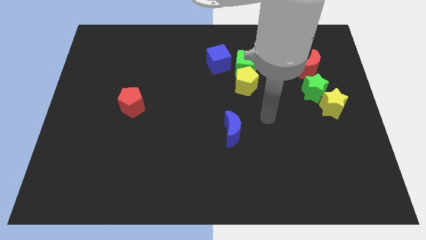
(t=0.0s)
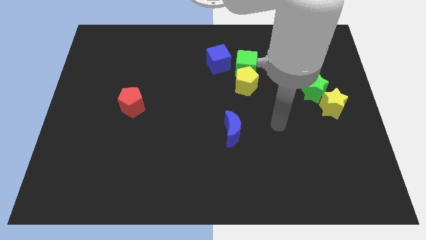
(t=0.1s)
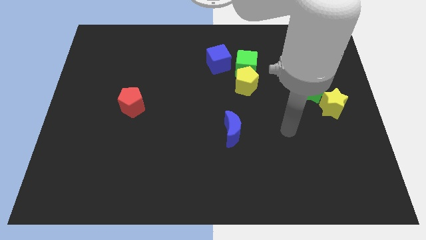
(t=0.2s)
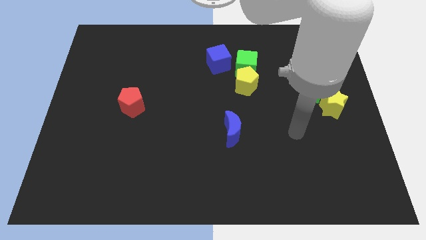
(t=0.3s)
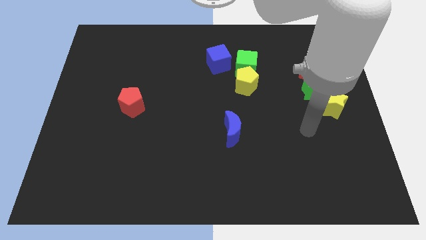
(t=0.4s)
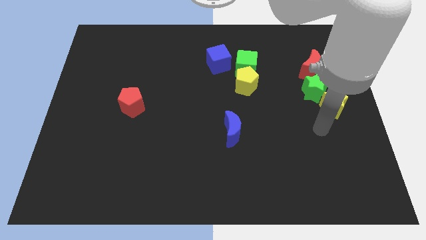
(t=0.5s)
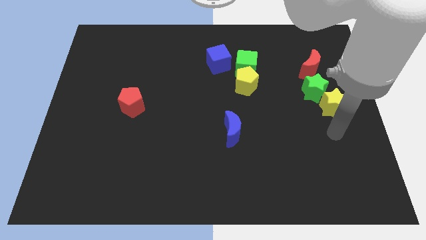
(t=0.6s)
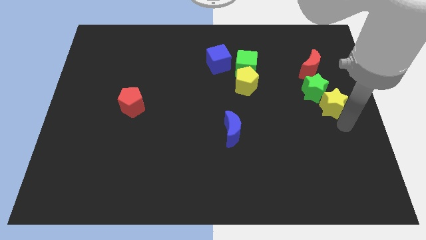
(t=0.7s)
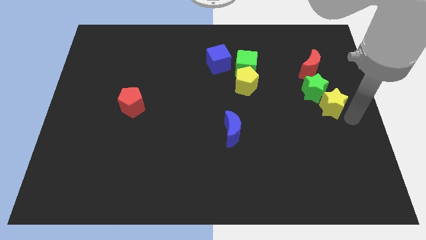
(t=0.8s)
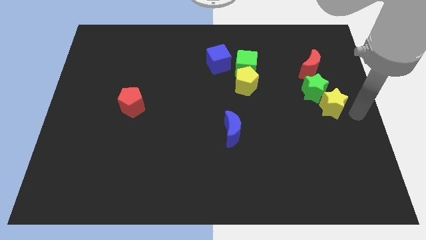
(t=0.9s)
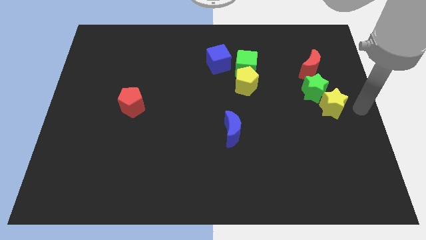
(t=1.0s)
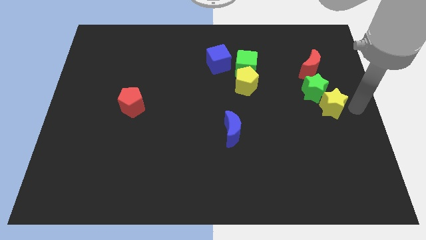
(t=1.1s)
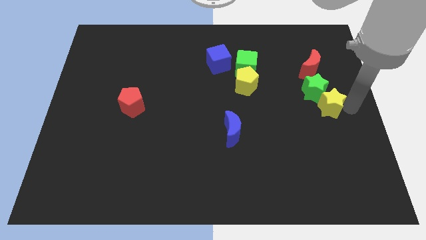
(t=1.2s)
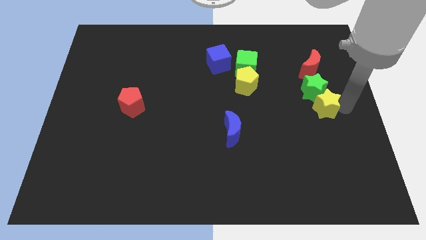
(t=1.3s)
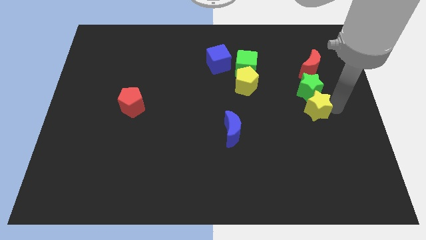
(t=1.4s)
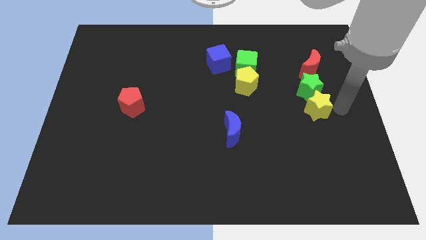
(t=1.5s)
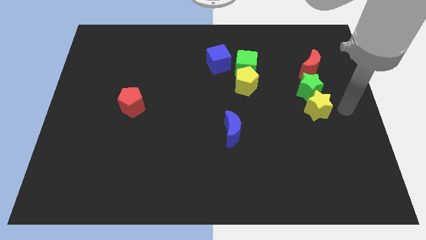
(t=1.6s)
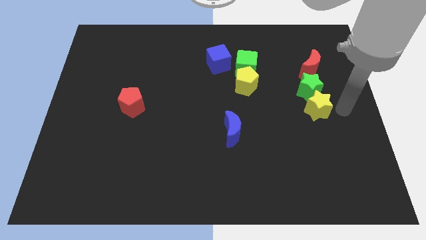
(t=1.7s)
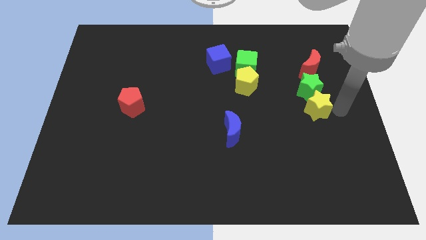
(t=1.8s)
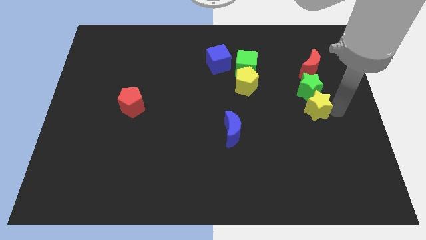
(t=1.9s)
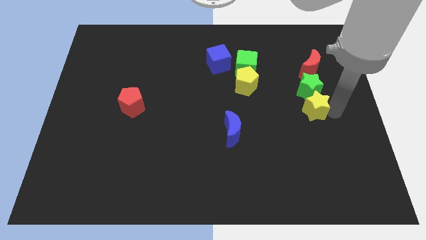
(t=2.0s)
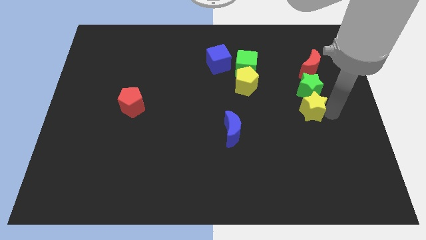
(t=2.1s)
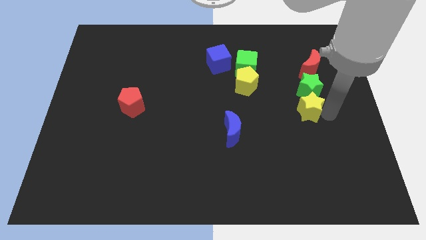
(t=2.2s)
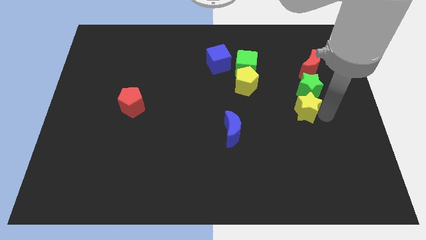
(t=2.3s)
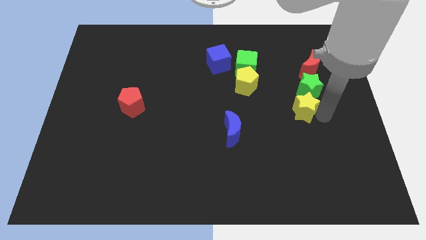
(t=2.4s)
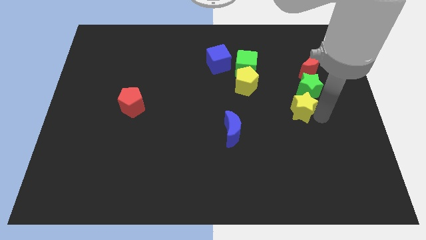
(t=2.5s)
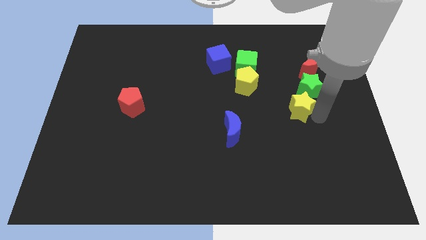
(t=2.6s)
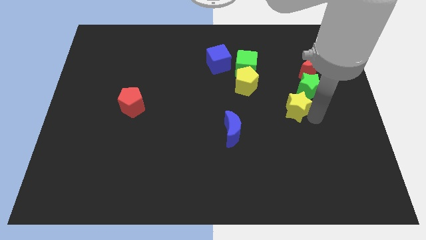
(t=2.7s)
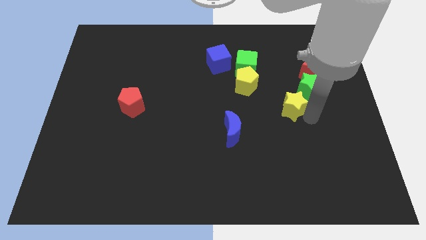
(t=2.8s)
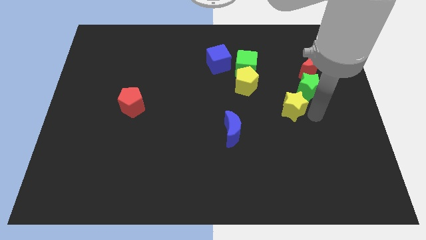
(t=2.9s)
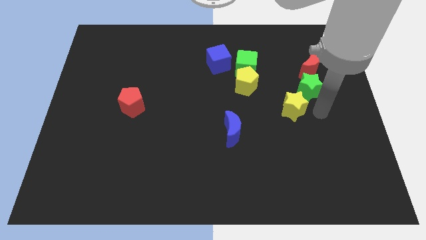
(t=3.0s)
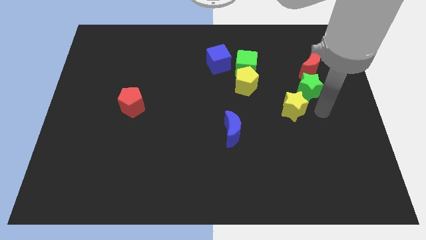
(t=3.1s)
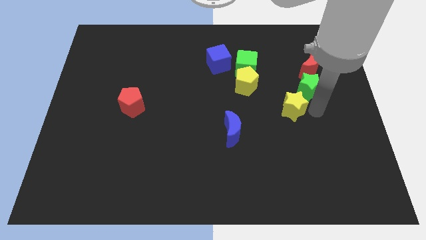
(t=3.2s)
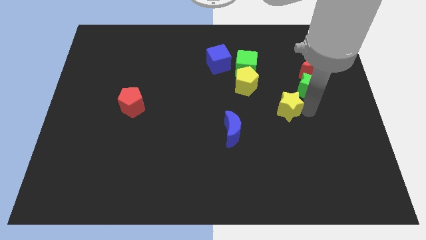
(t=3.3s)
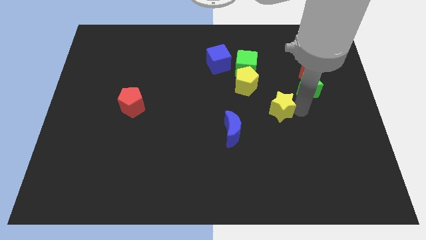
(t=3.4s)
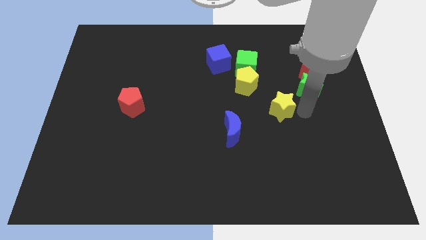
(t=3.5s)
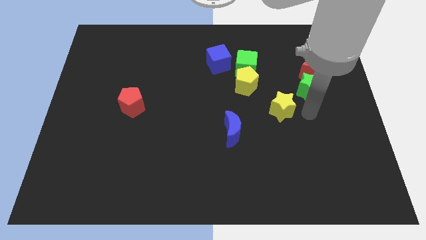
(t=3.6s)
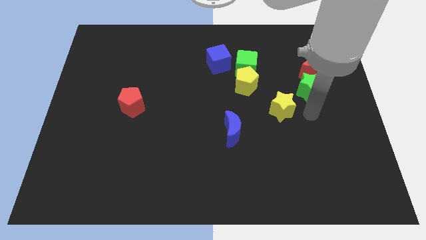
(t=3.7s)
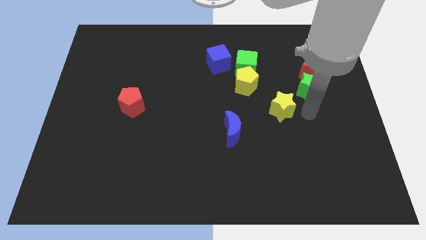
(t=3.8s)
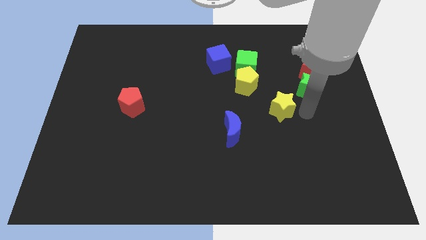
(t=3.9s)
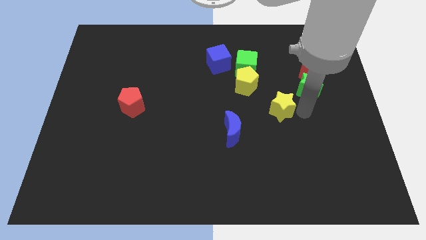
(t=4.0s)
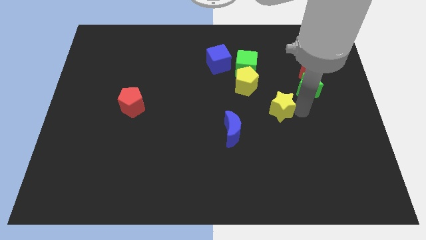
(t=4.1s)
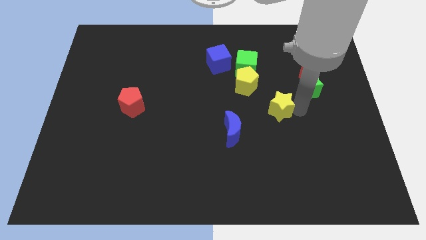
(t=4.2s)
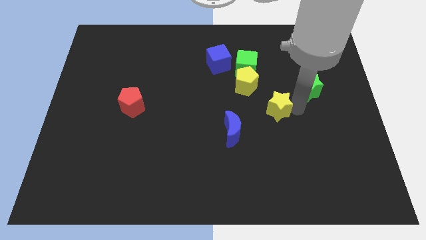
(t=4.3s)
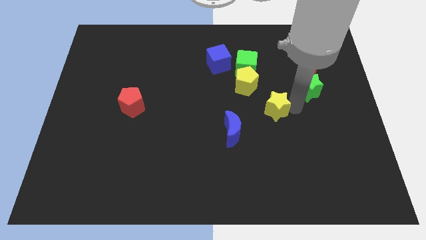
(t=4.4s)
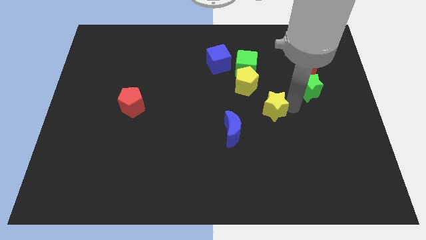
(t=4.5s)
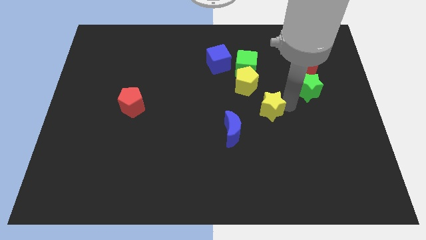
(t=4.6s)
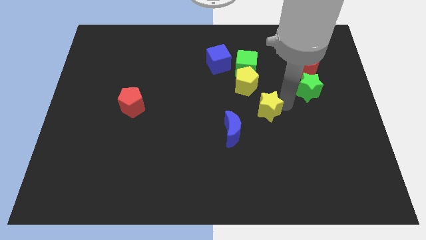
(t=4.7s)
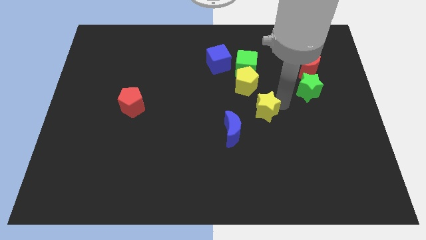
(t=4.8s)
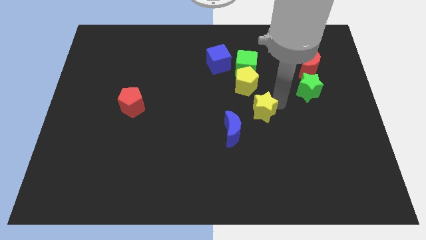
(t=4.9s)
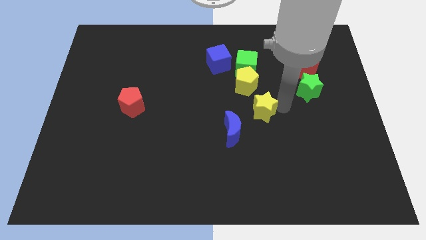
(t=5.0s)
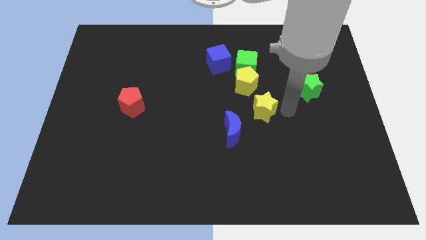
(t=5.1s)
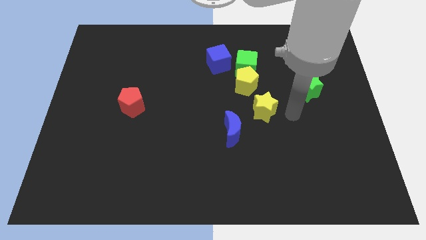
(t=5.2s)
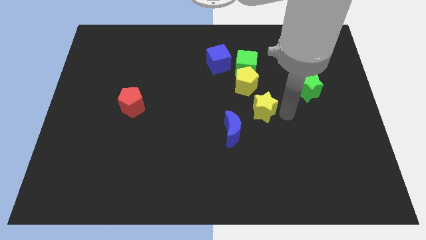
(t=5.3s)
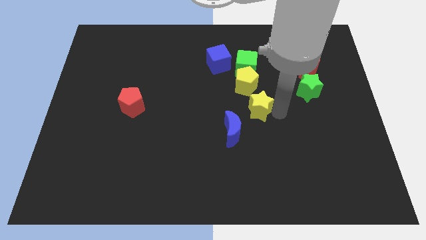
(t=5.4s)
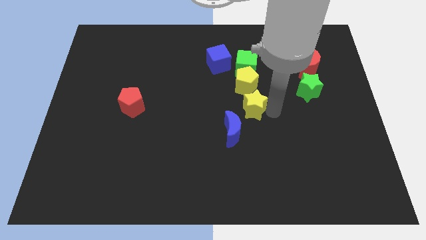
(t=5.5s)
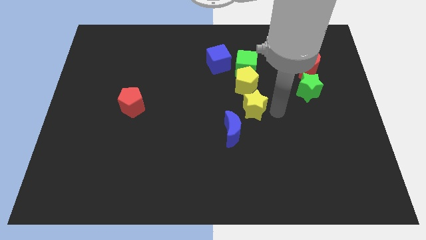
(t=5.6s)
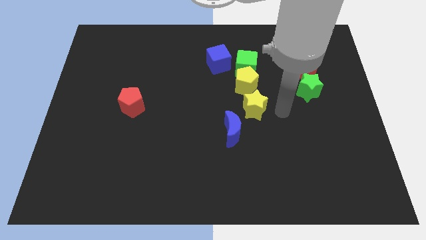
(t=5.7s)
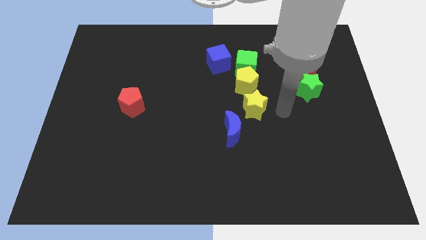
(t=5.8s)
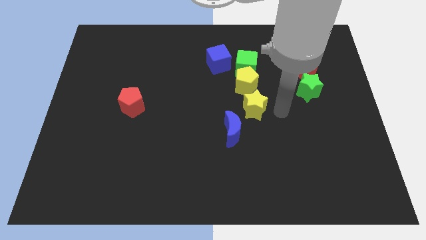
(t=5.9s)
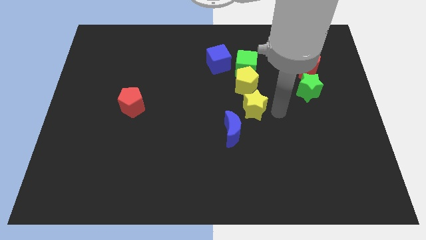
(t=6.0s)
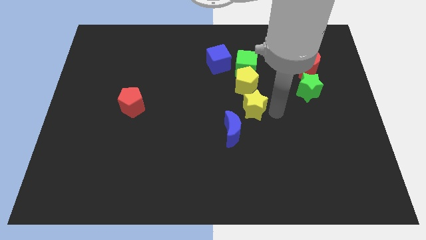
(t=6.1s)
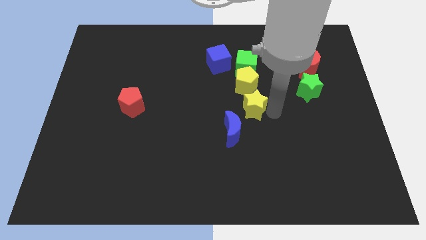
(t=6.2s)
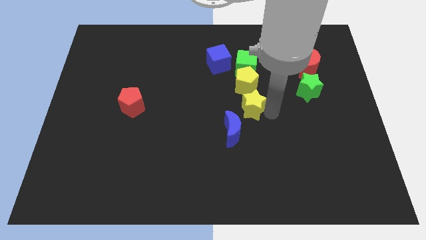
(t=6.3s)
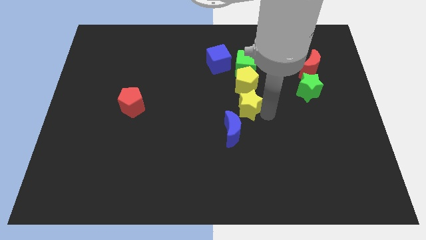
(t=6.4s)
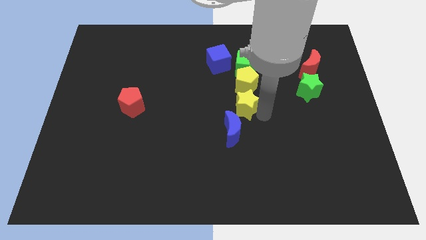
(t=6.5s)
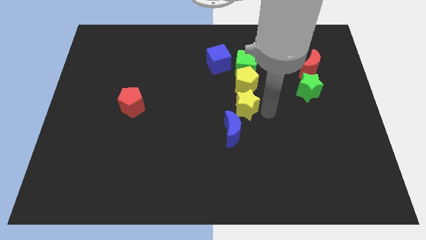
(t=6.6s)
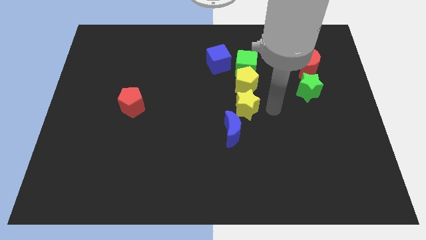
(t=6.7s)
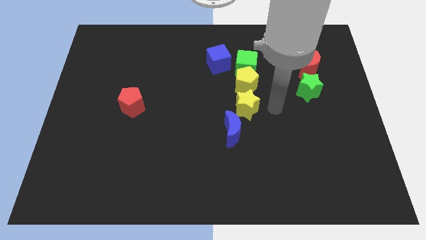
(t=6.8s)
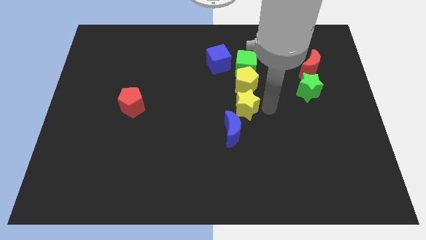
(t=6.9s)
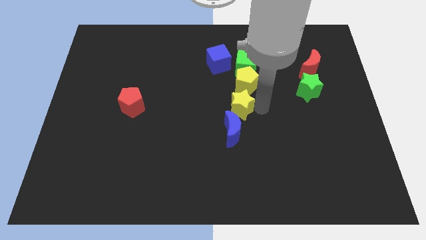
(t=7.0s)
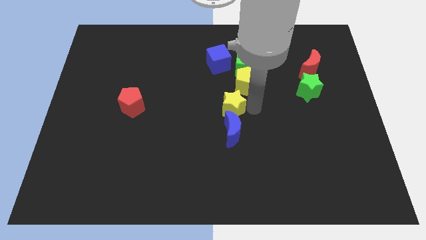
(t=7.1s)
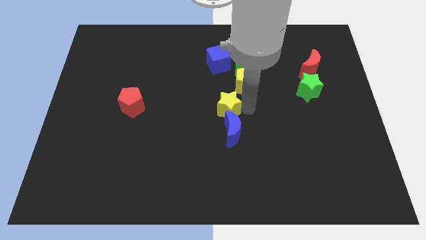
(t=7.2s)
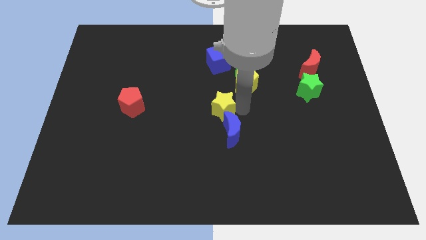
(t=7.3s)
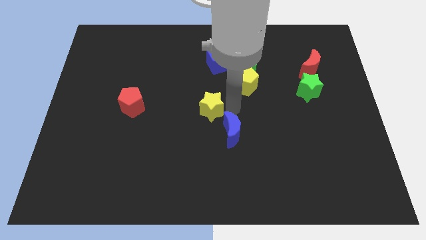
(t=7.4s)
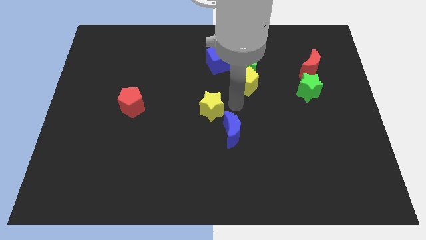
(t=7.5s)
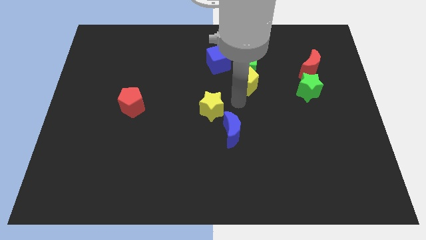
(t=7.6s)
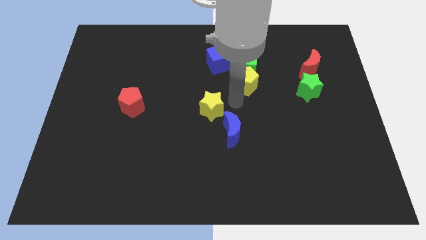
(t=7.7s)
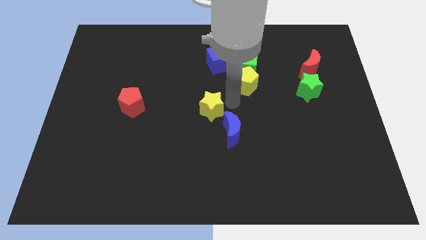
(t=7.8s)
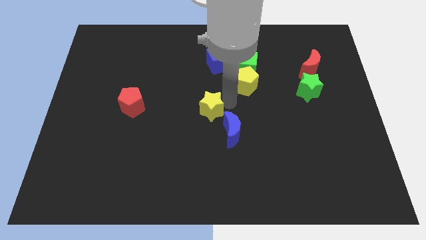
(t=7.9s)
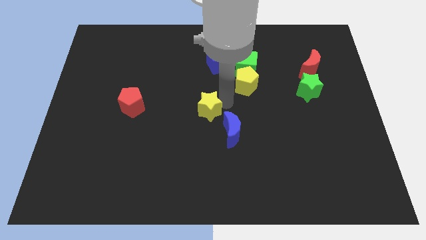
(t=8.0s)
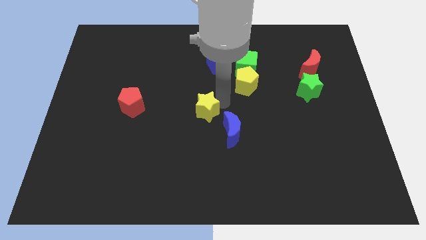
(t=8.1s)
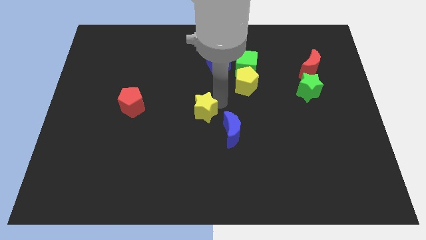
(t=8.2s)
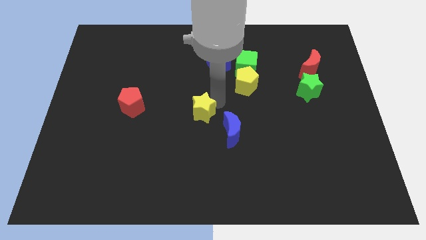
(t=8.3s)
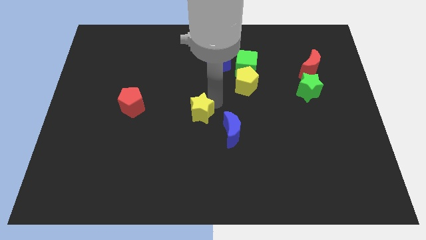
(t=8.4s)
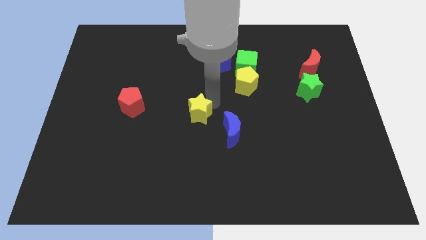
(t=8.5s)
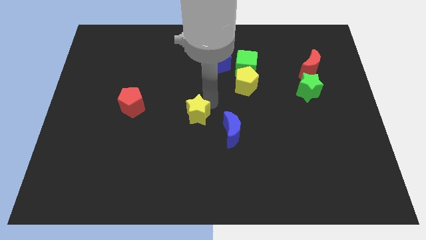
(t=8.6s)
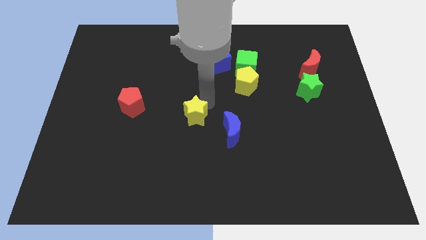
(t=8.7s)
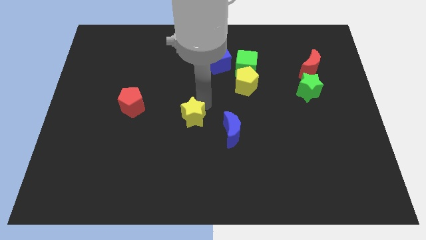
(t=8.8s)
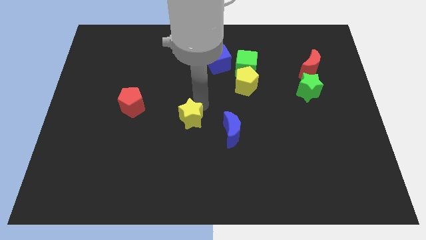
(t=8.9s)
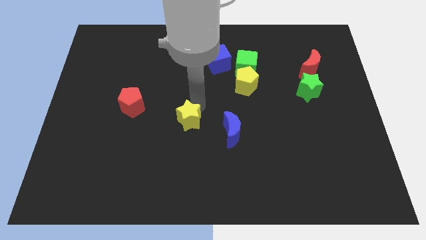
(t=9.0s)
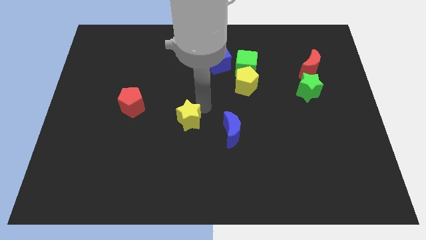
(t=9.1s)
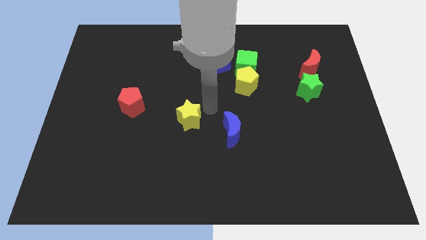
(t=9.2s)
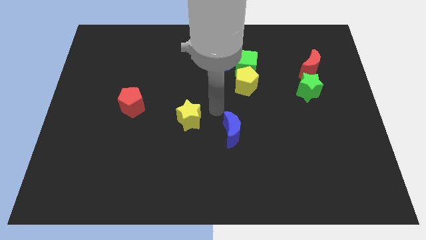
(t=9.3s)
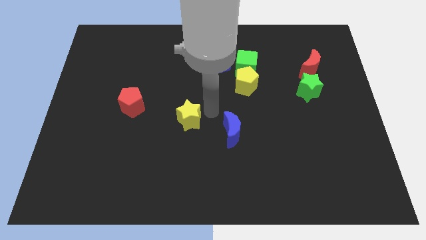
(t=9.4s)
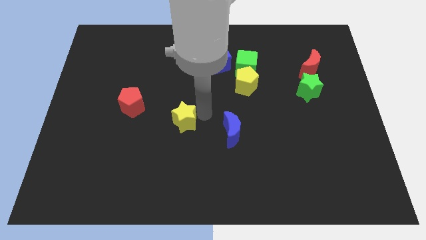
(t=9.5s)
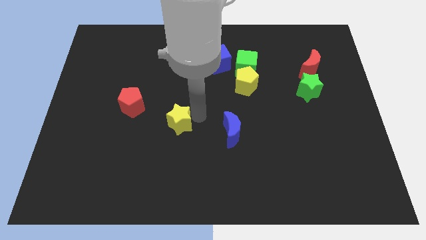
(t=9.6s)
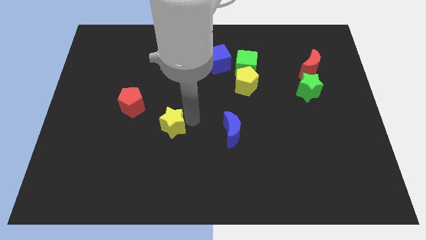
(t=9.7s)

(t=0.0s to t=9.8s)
put the yellow star diagonally down and to the right of the red pentagon
